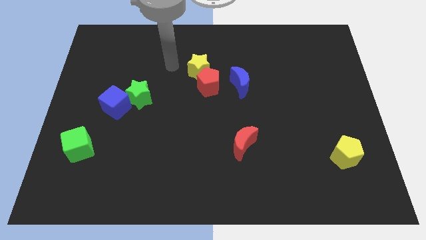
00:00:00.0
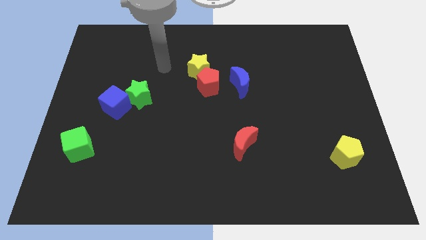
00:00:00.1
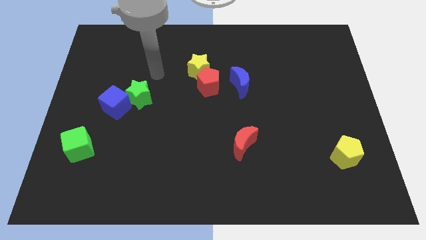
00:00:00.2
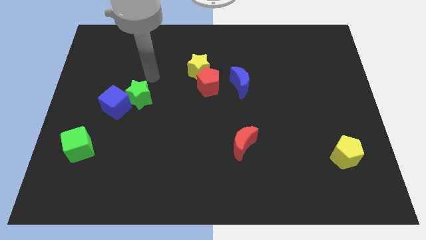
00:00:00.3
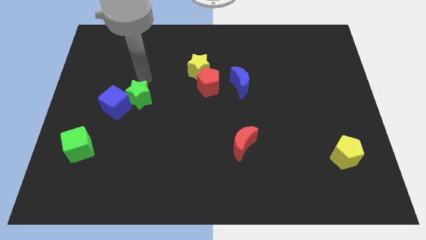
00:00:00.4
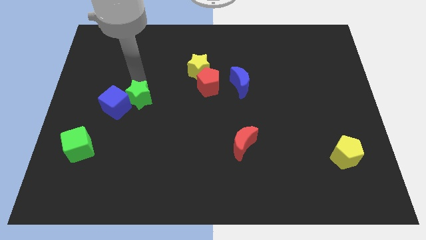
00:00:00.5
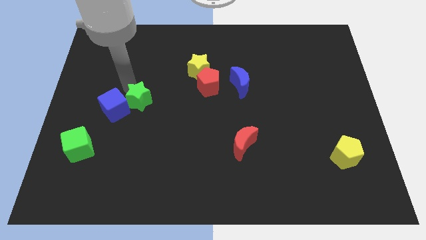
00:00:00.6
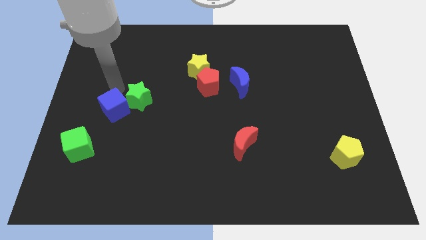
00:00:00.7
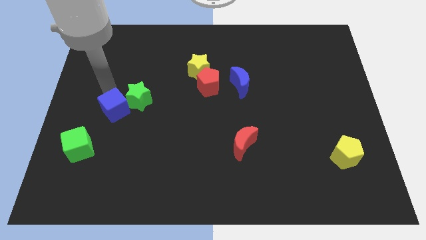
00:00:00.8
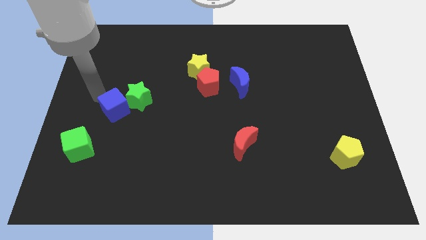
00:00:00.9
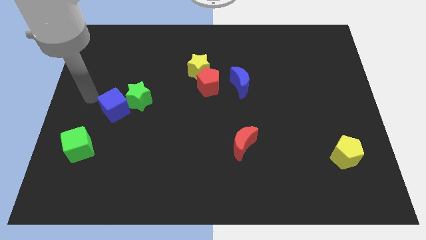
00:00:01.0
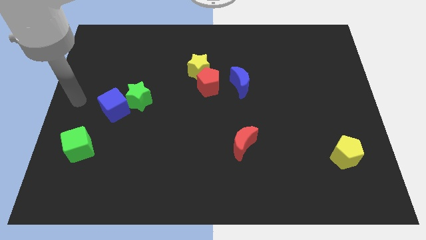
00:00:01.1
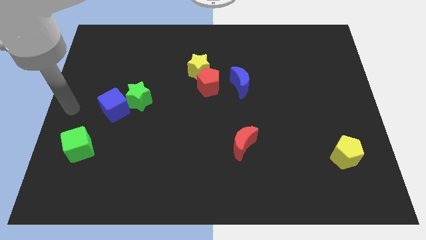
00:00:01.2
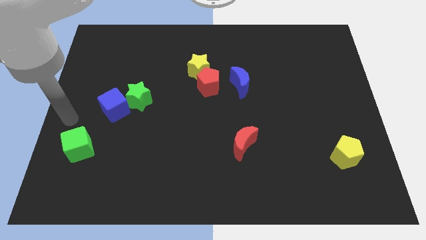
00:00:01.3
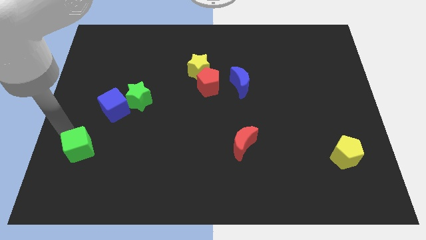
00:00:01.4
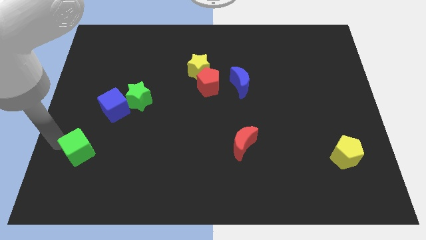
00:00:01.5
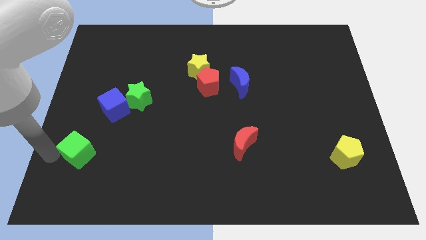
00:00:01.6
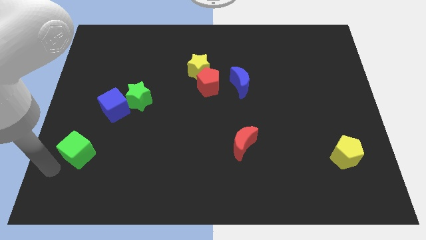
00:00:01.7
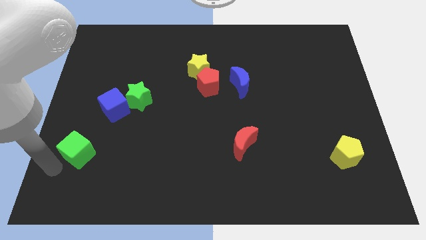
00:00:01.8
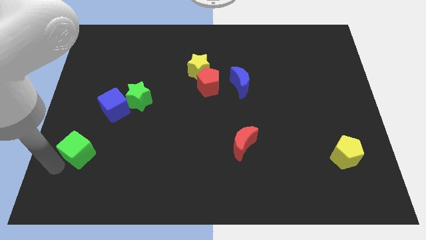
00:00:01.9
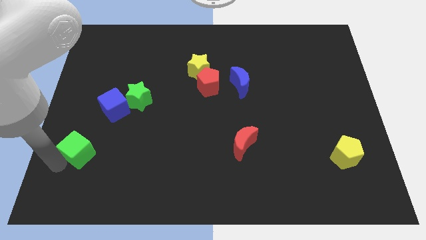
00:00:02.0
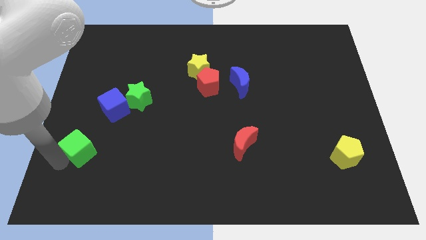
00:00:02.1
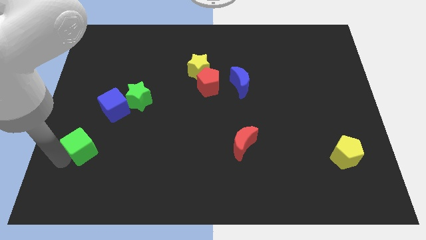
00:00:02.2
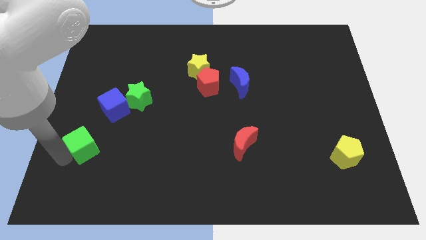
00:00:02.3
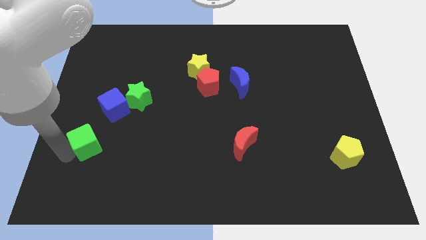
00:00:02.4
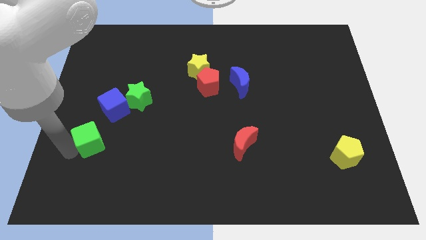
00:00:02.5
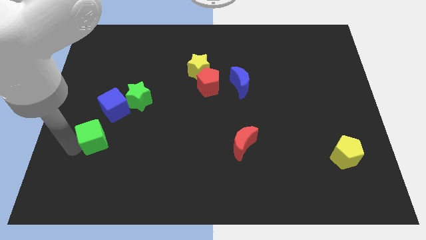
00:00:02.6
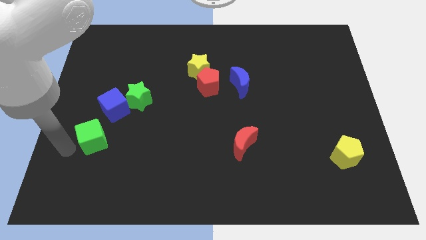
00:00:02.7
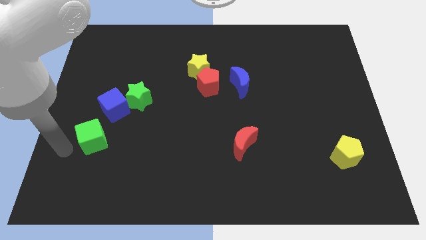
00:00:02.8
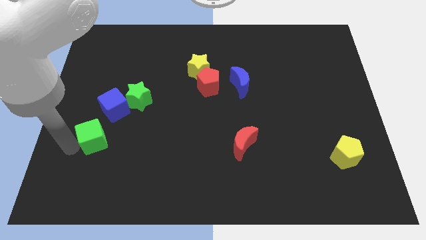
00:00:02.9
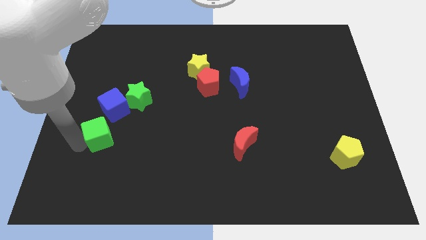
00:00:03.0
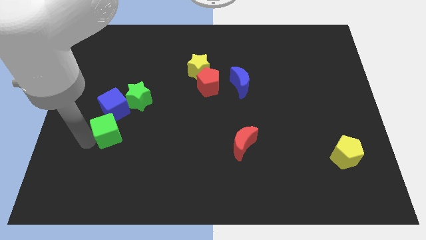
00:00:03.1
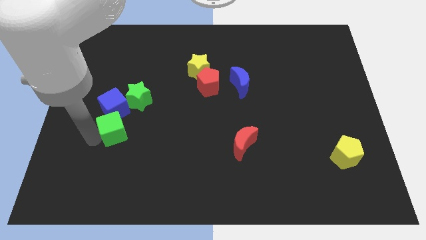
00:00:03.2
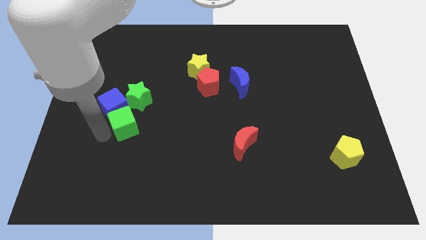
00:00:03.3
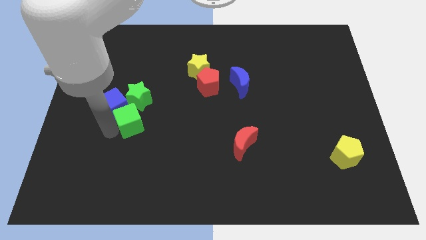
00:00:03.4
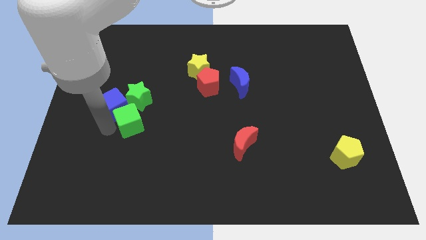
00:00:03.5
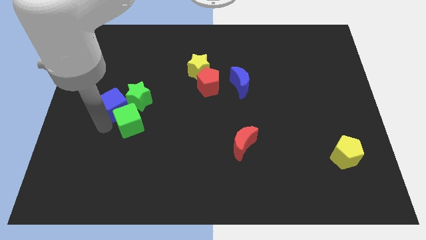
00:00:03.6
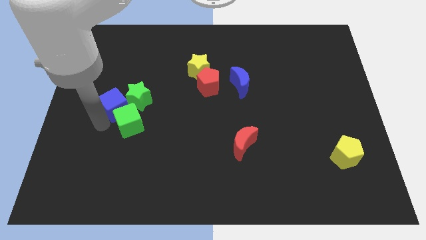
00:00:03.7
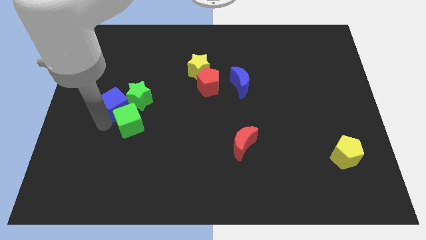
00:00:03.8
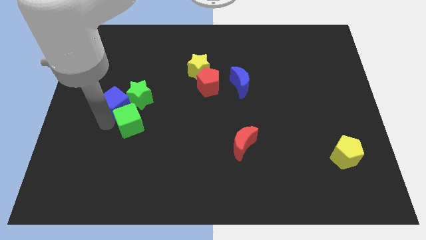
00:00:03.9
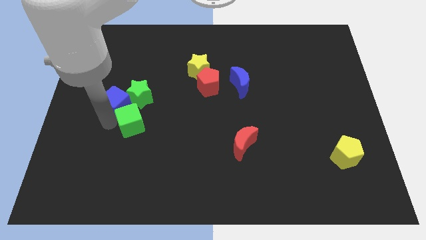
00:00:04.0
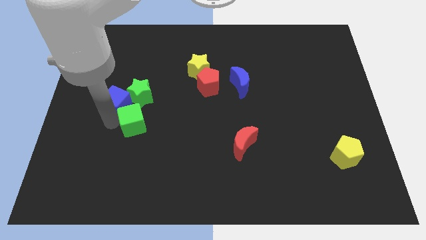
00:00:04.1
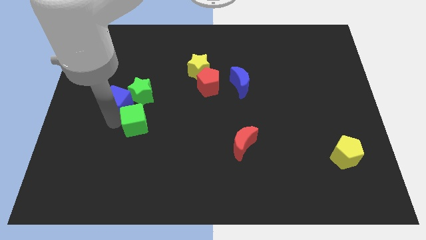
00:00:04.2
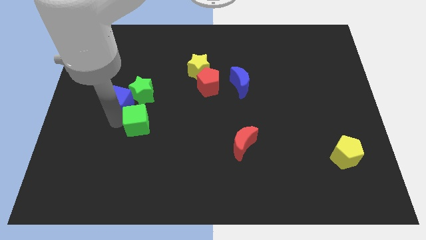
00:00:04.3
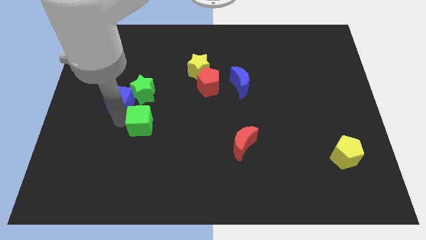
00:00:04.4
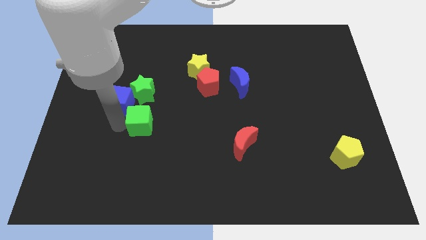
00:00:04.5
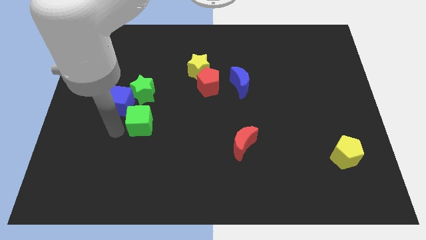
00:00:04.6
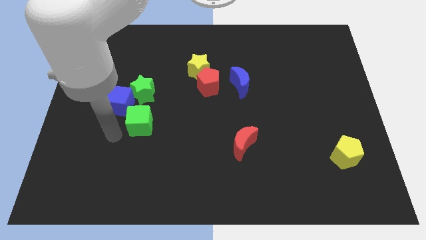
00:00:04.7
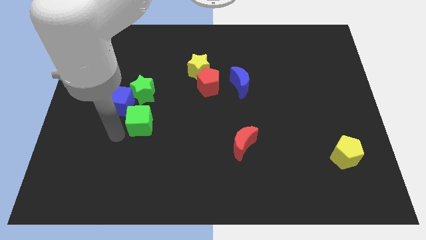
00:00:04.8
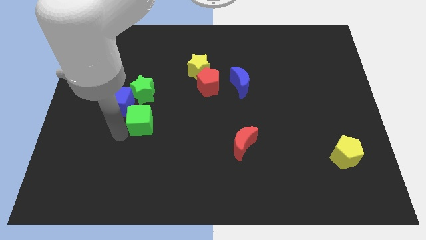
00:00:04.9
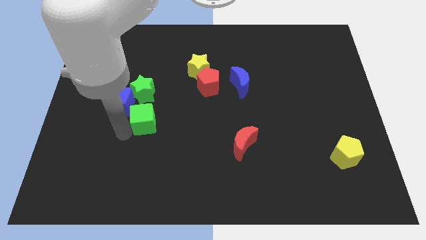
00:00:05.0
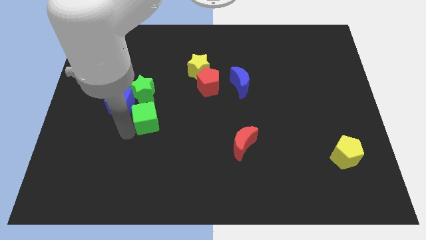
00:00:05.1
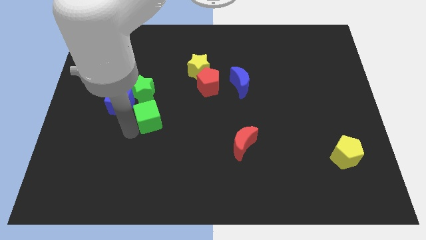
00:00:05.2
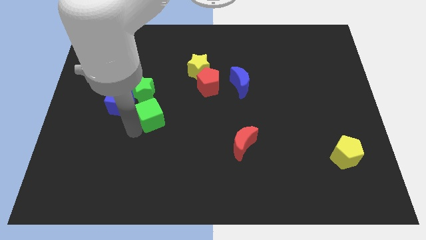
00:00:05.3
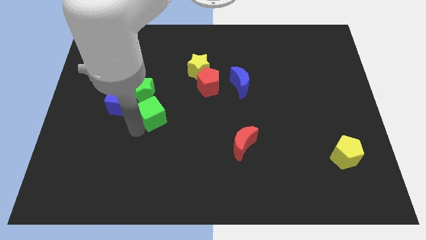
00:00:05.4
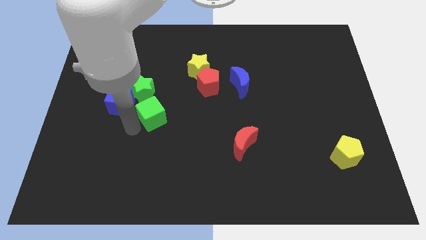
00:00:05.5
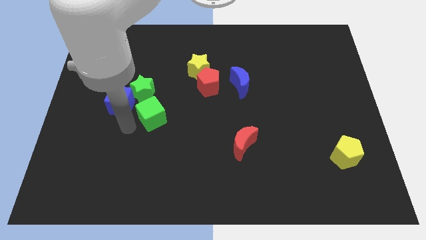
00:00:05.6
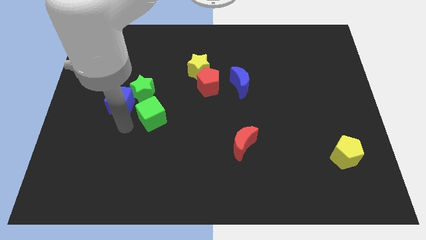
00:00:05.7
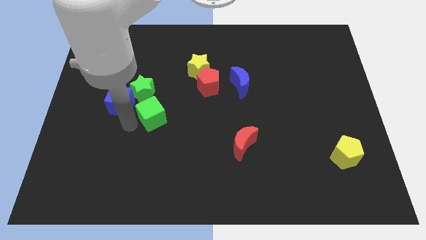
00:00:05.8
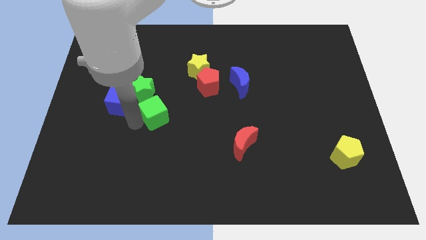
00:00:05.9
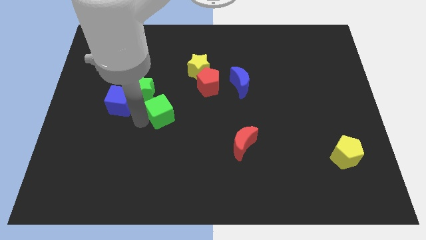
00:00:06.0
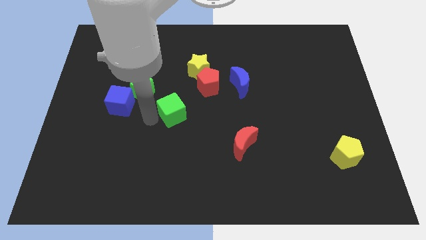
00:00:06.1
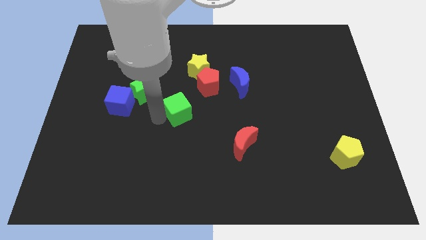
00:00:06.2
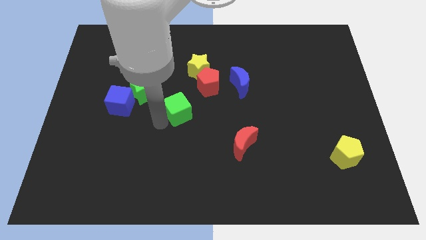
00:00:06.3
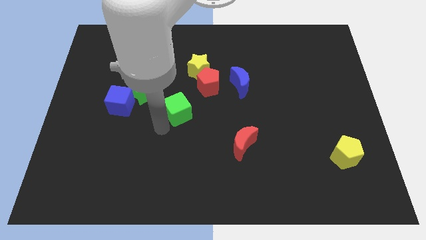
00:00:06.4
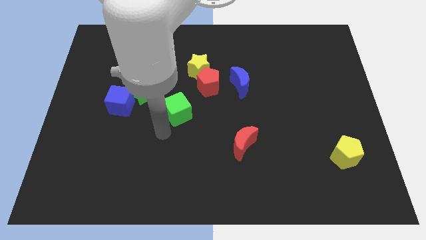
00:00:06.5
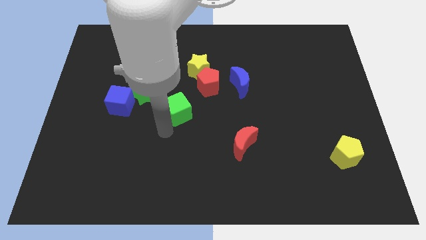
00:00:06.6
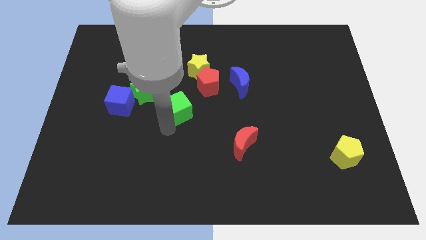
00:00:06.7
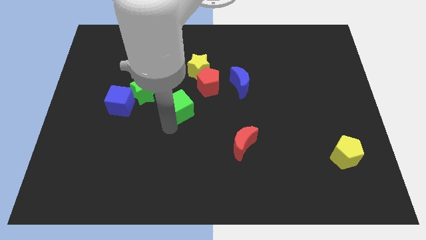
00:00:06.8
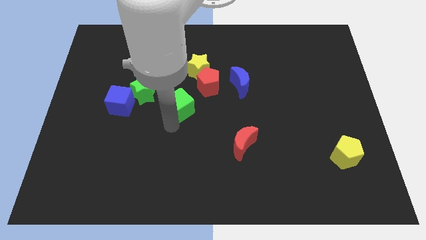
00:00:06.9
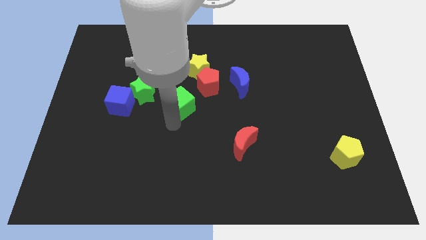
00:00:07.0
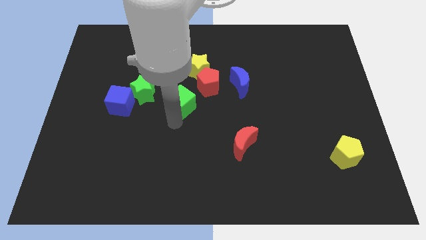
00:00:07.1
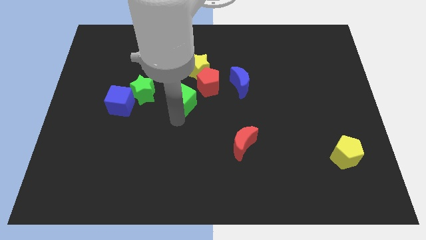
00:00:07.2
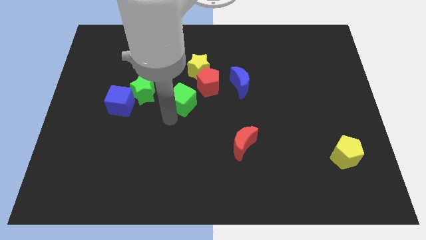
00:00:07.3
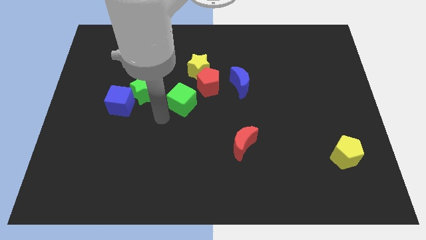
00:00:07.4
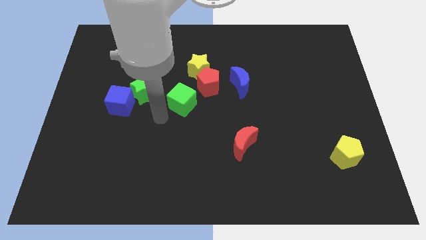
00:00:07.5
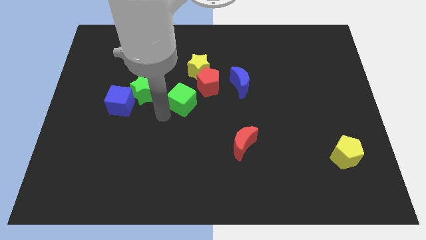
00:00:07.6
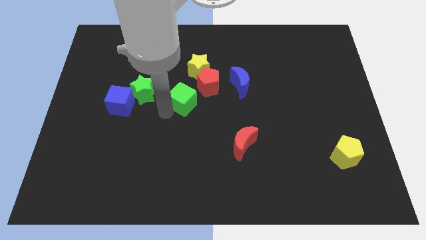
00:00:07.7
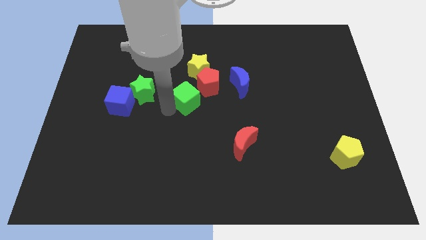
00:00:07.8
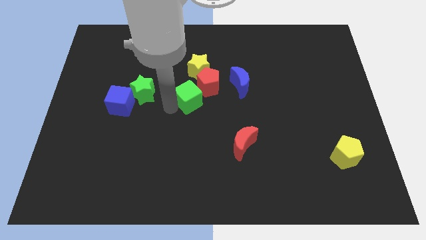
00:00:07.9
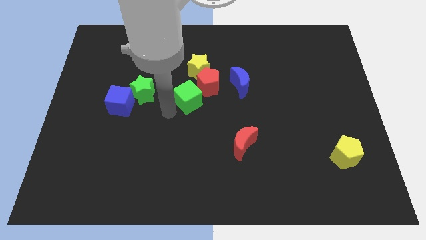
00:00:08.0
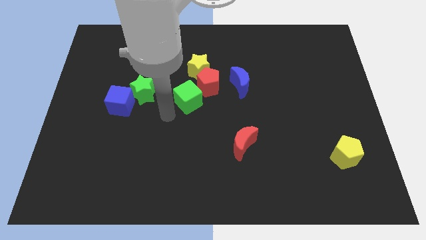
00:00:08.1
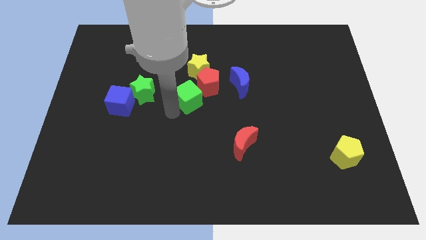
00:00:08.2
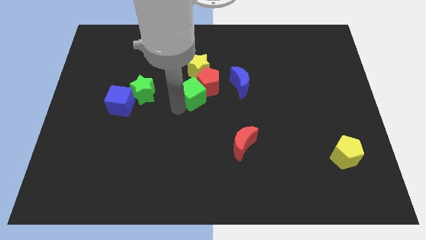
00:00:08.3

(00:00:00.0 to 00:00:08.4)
push the green cube towards the red pentagon

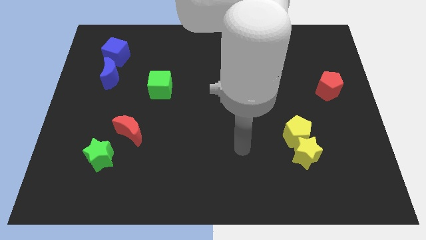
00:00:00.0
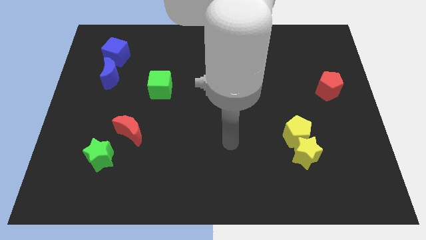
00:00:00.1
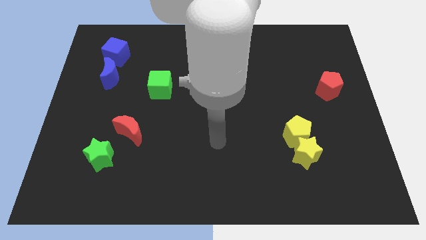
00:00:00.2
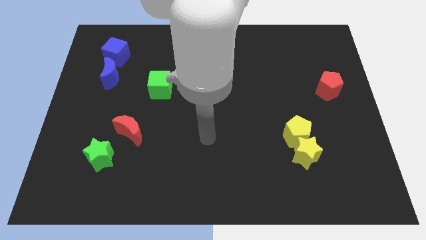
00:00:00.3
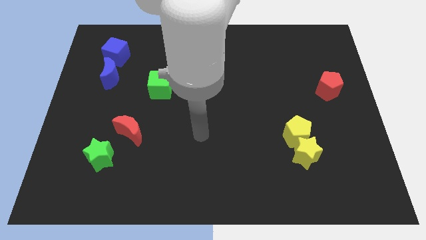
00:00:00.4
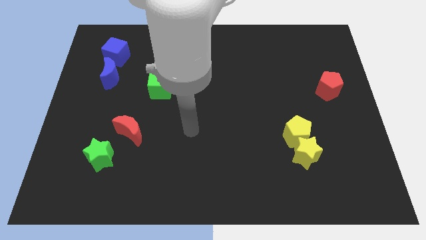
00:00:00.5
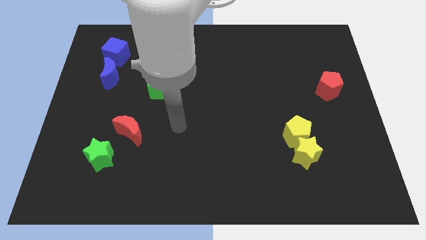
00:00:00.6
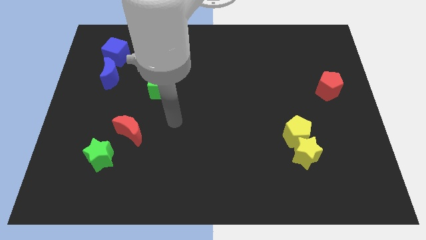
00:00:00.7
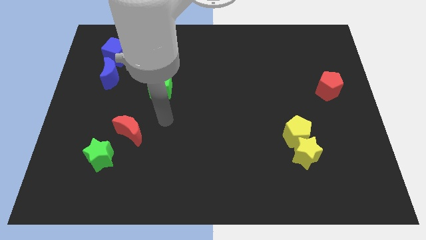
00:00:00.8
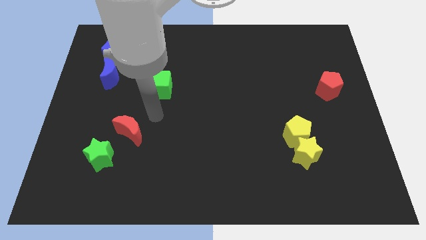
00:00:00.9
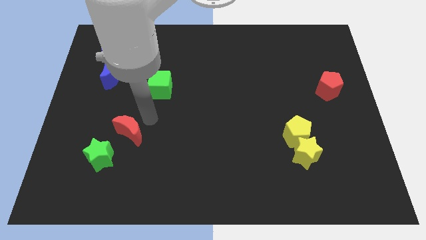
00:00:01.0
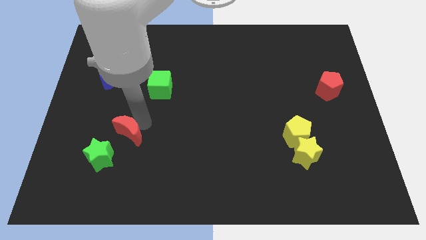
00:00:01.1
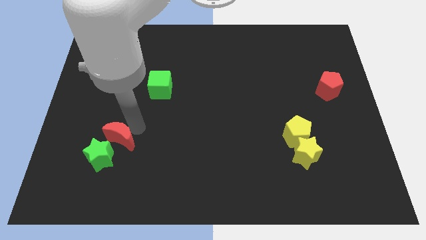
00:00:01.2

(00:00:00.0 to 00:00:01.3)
slide the red moon next to the green star
